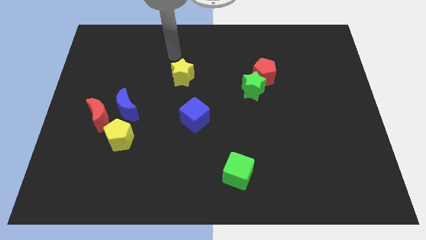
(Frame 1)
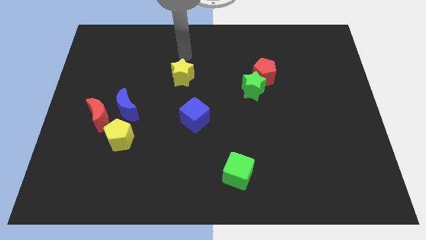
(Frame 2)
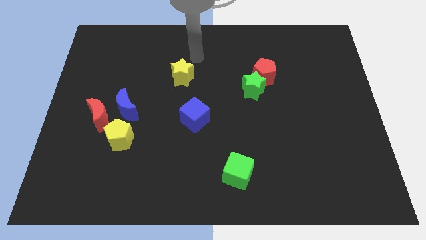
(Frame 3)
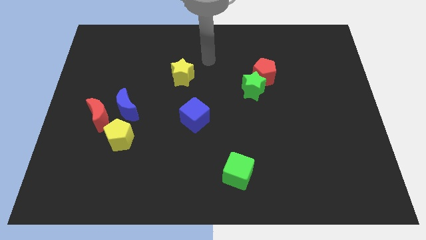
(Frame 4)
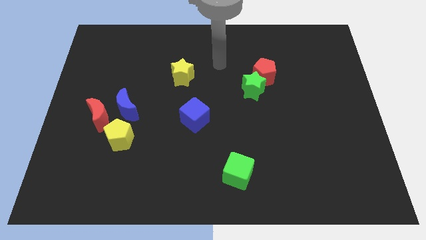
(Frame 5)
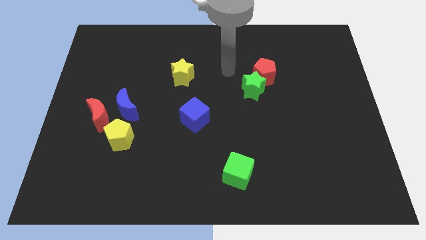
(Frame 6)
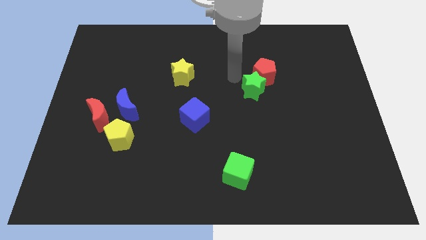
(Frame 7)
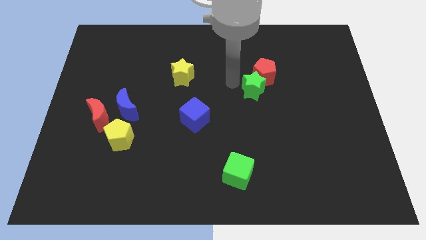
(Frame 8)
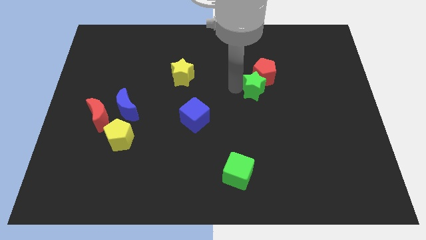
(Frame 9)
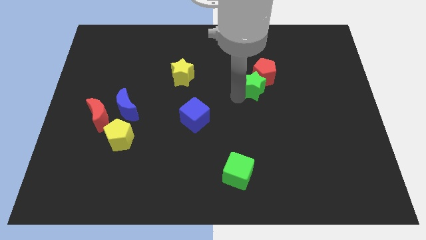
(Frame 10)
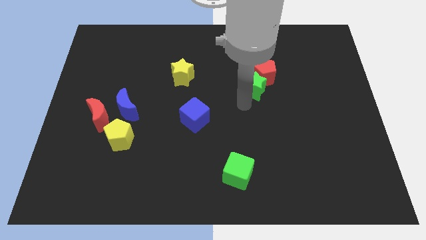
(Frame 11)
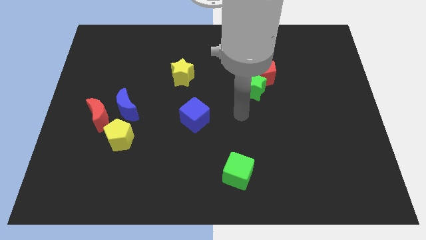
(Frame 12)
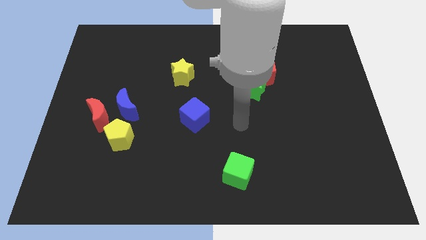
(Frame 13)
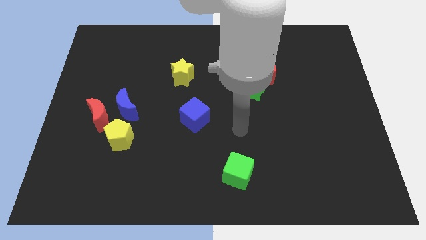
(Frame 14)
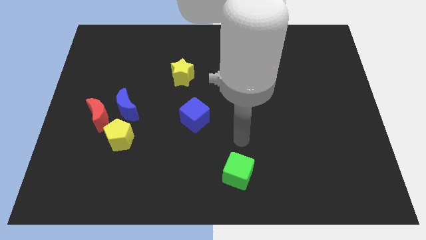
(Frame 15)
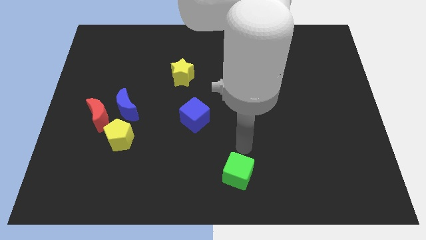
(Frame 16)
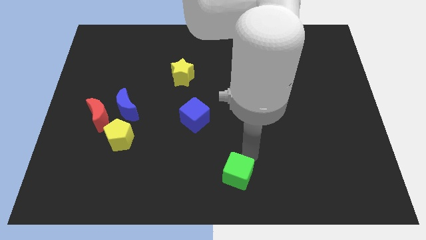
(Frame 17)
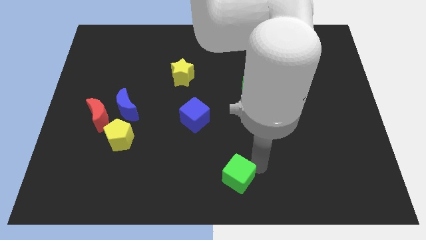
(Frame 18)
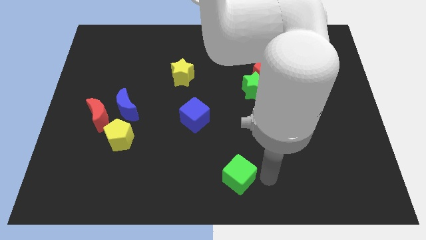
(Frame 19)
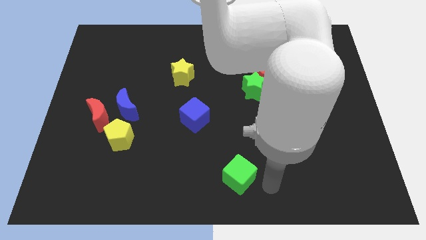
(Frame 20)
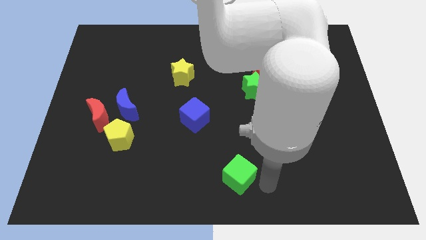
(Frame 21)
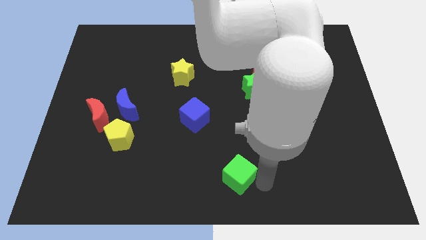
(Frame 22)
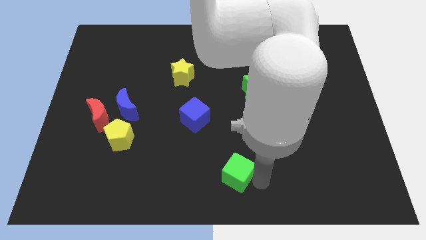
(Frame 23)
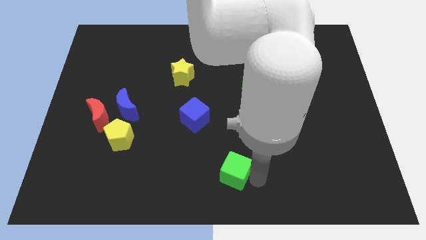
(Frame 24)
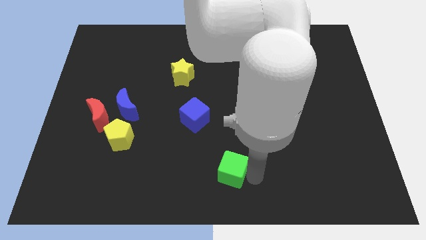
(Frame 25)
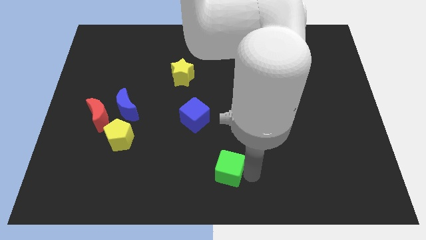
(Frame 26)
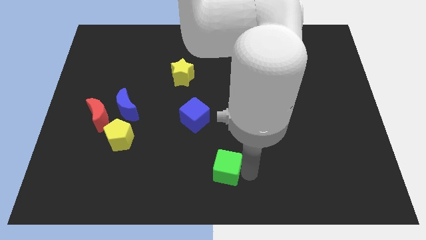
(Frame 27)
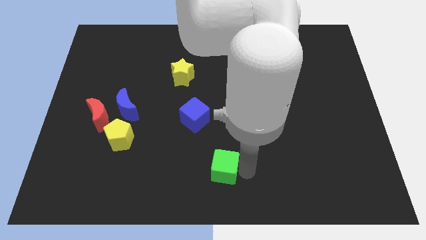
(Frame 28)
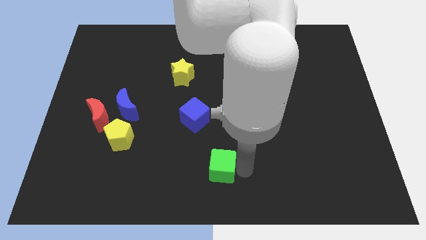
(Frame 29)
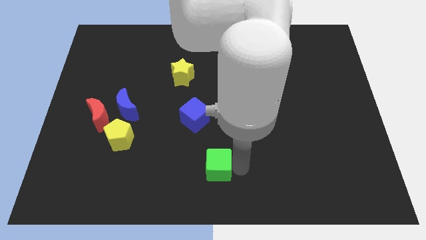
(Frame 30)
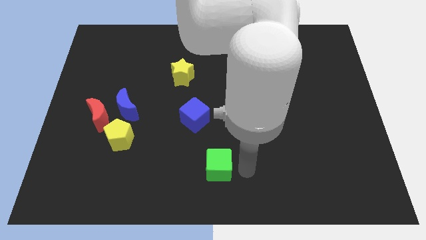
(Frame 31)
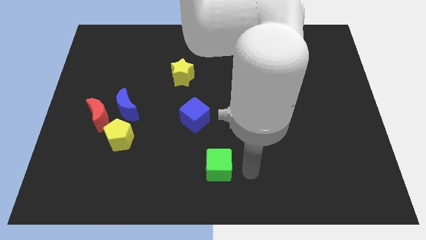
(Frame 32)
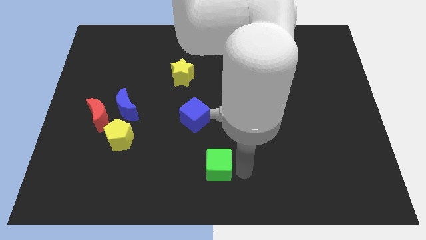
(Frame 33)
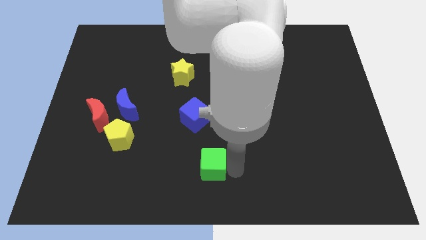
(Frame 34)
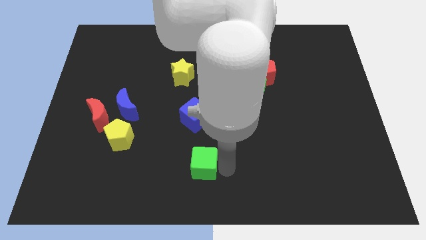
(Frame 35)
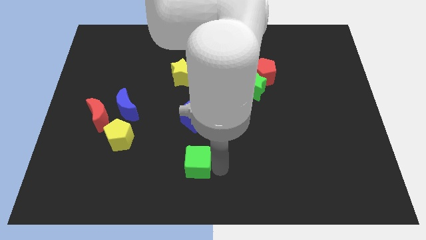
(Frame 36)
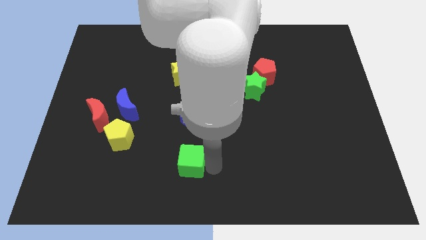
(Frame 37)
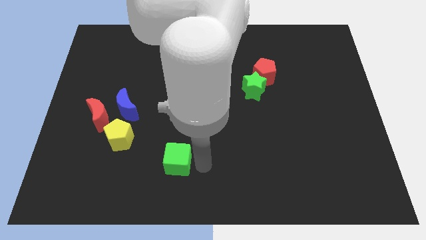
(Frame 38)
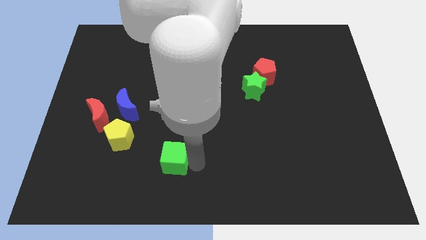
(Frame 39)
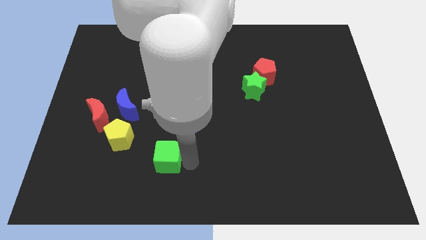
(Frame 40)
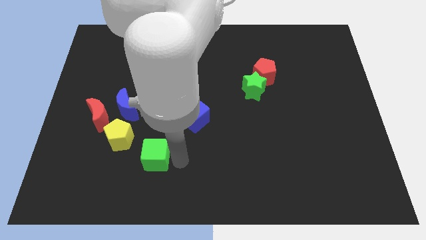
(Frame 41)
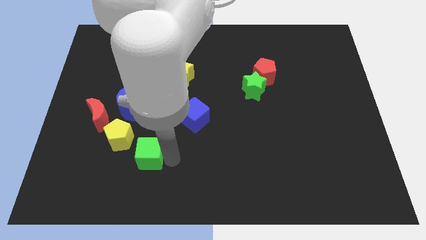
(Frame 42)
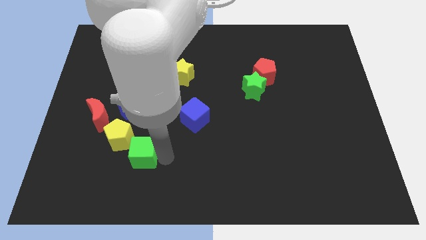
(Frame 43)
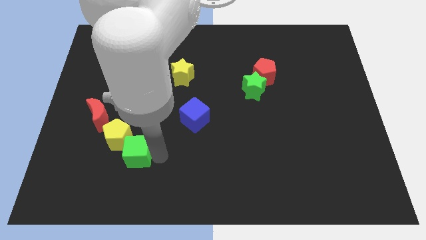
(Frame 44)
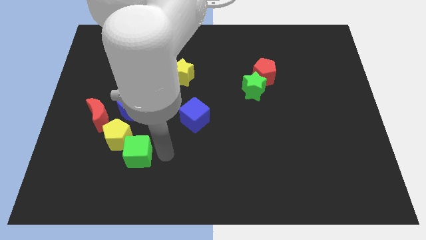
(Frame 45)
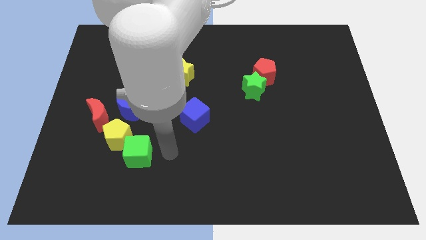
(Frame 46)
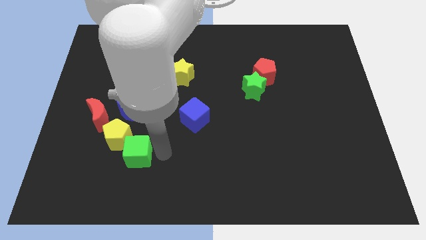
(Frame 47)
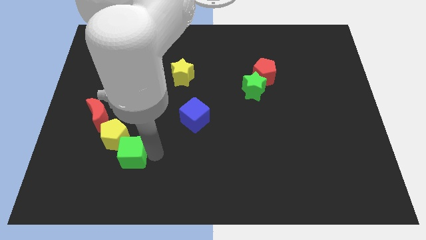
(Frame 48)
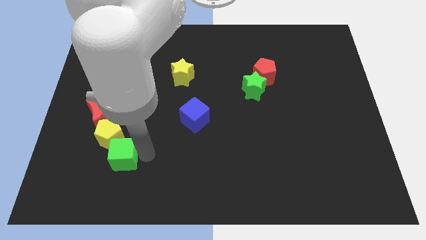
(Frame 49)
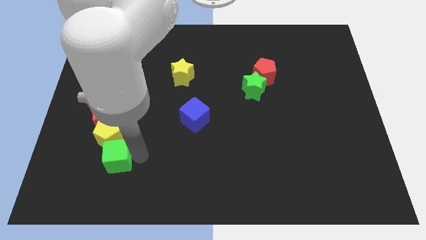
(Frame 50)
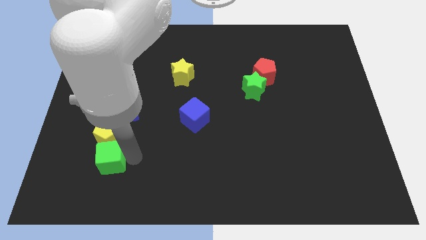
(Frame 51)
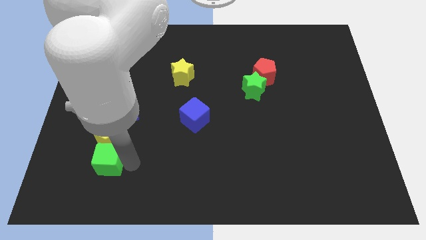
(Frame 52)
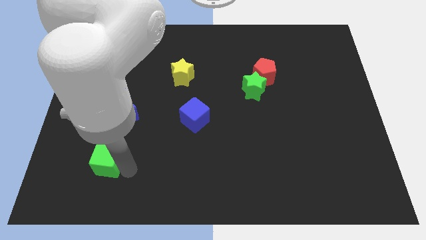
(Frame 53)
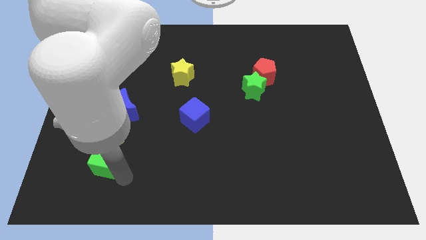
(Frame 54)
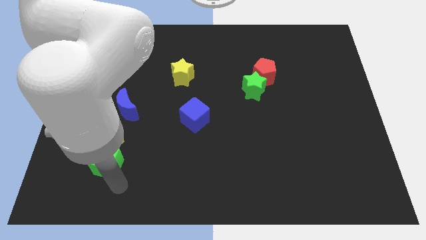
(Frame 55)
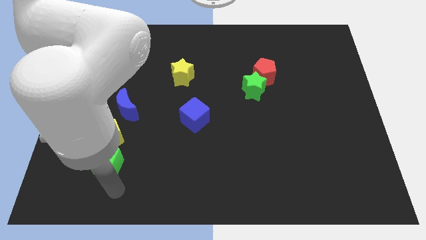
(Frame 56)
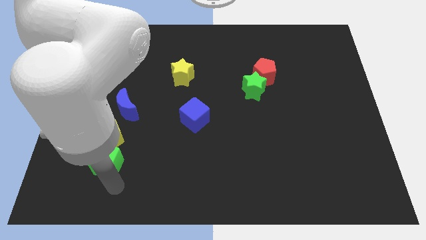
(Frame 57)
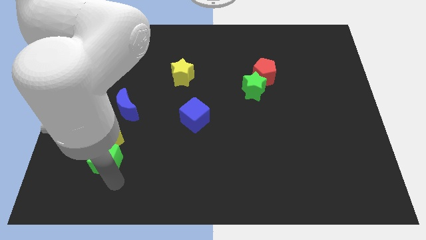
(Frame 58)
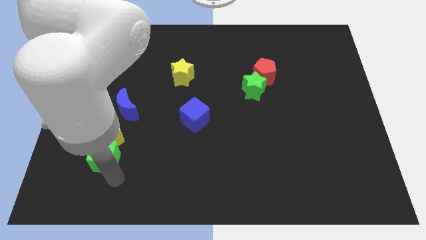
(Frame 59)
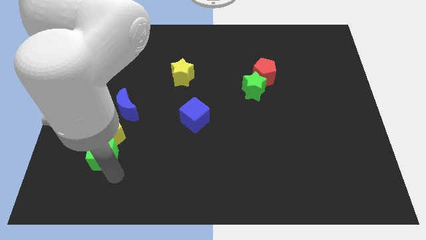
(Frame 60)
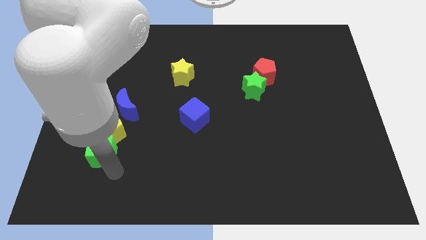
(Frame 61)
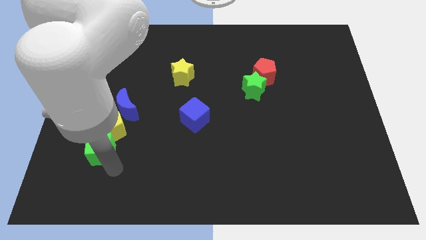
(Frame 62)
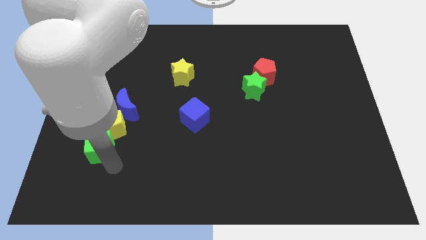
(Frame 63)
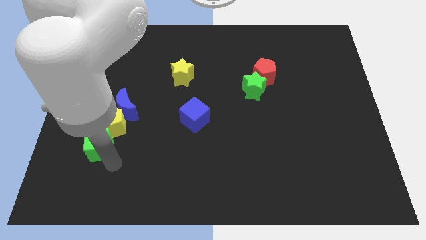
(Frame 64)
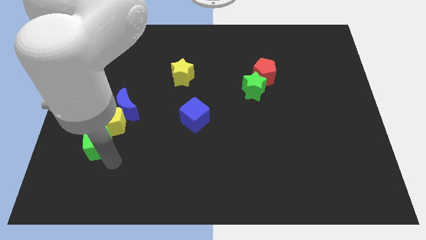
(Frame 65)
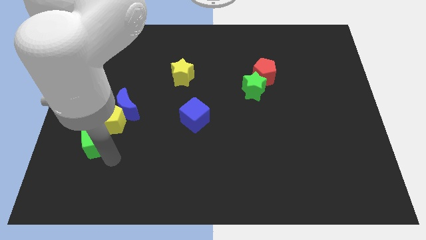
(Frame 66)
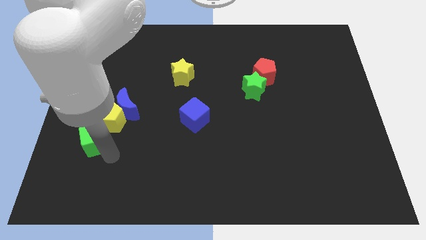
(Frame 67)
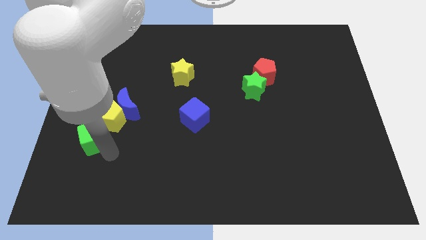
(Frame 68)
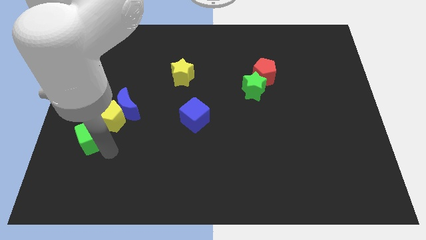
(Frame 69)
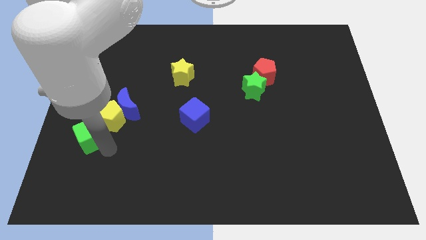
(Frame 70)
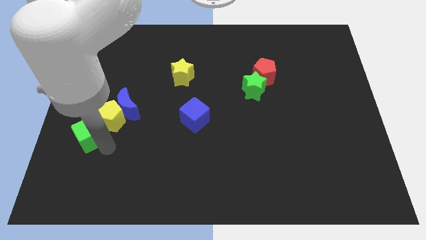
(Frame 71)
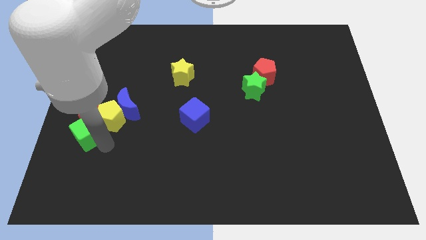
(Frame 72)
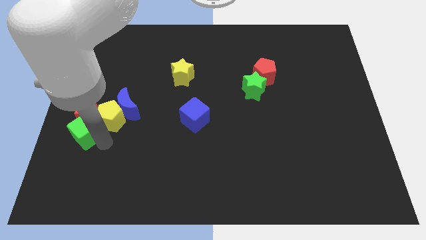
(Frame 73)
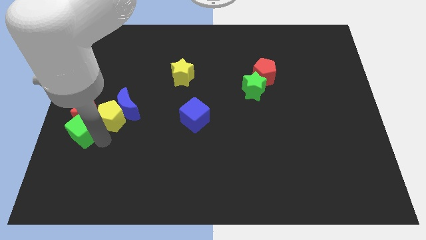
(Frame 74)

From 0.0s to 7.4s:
push the green cube to the center left
